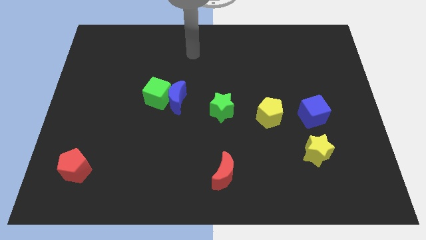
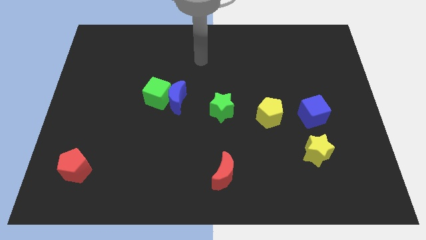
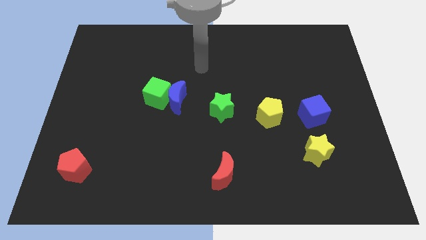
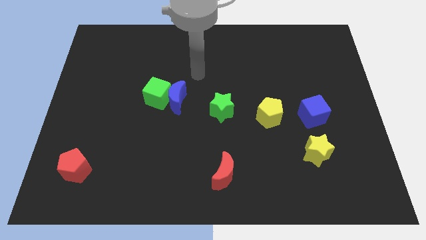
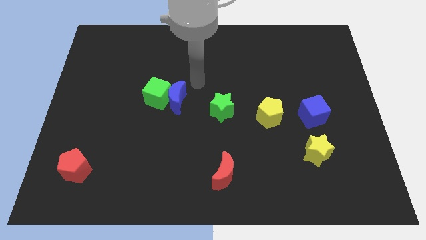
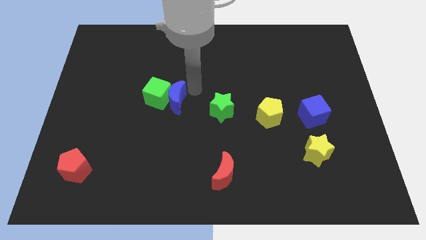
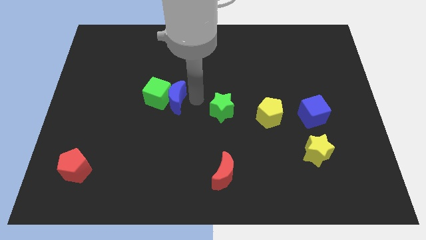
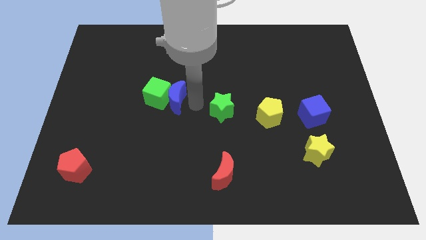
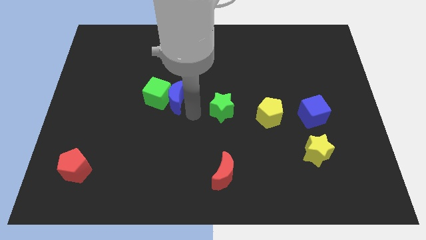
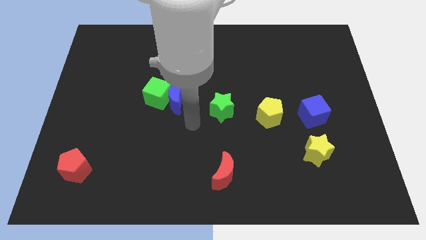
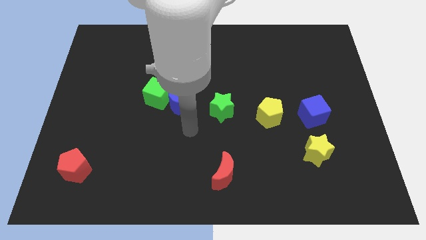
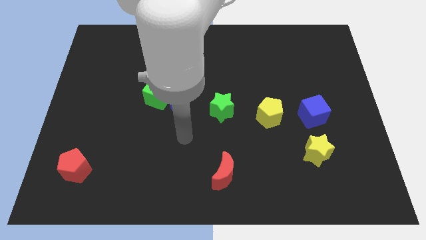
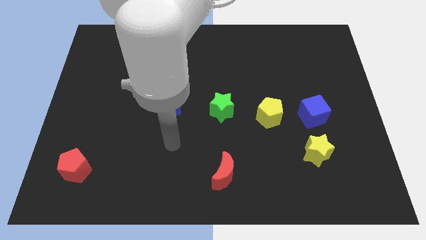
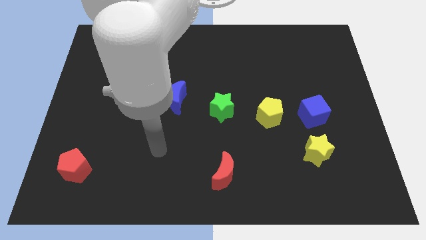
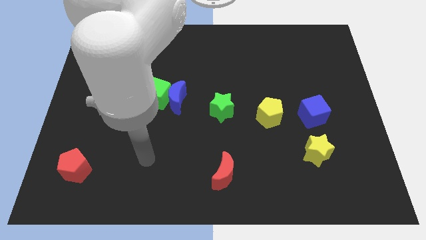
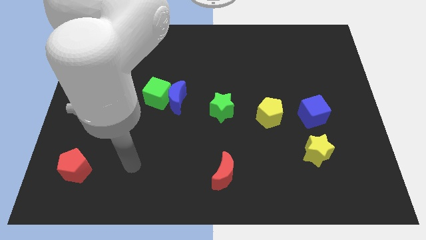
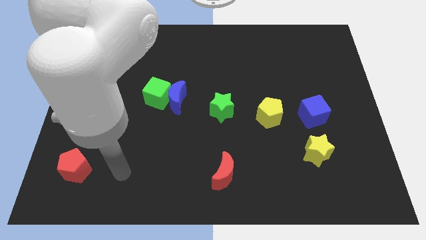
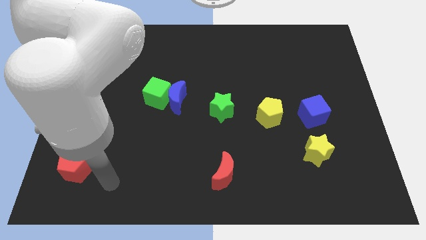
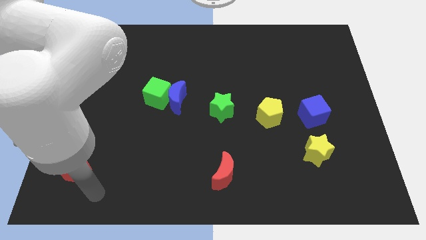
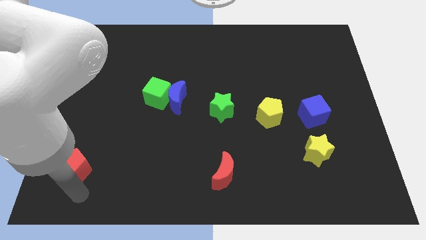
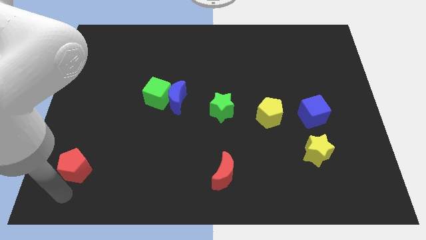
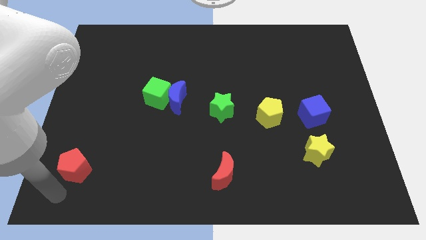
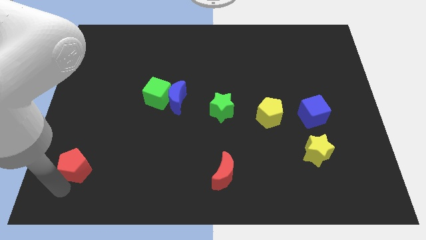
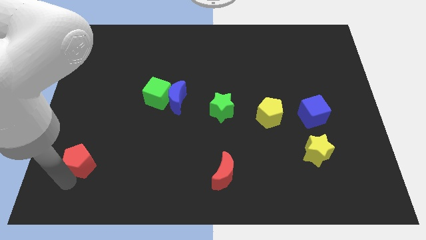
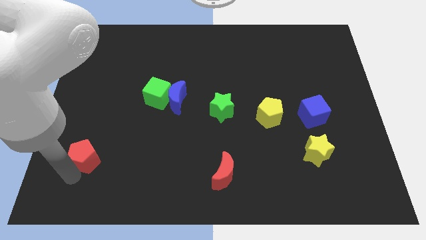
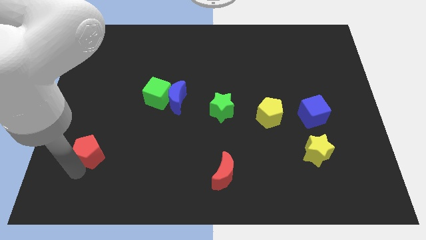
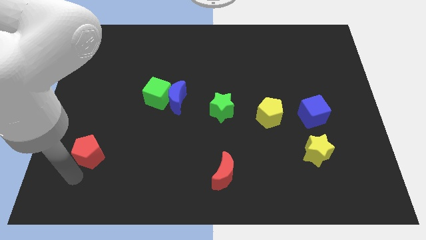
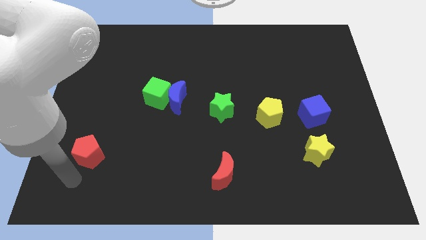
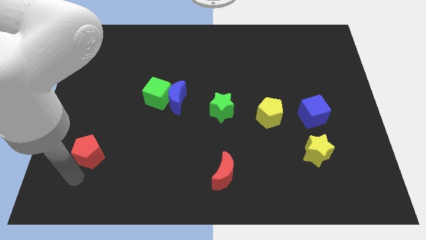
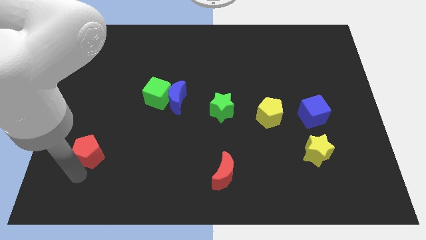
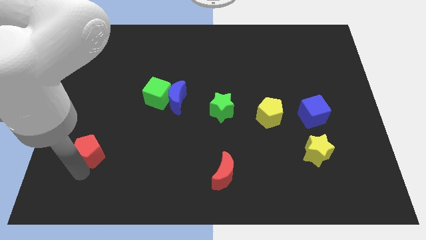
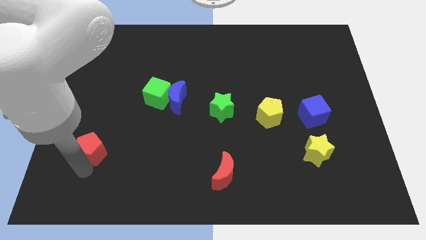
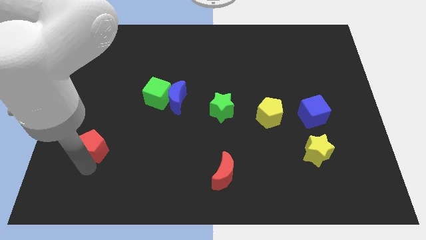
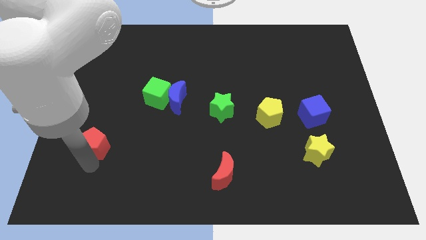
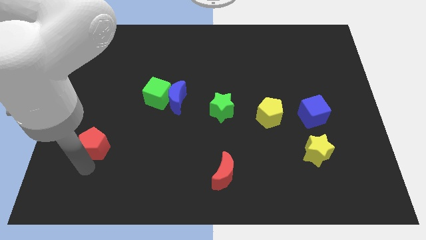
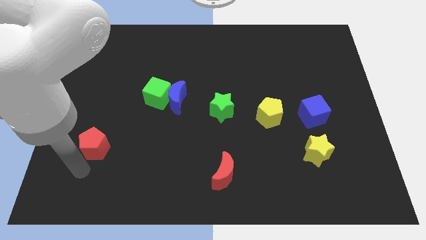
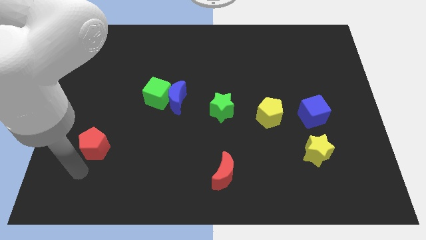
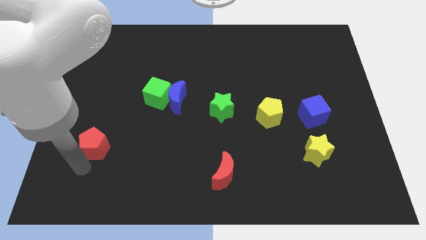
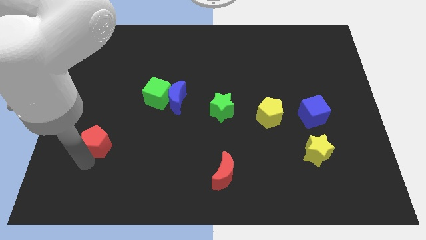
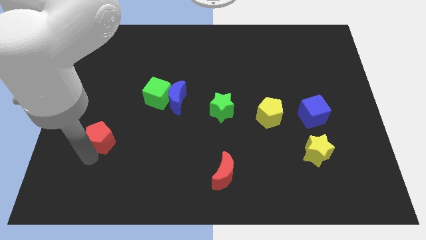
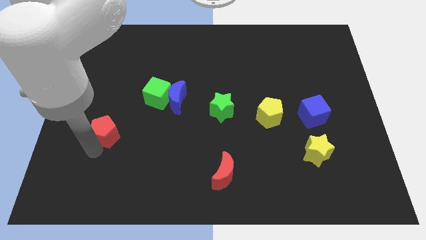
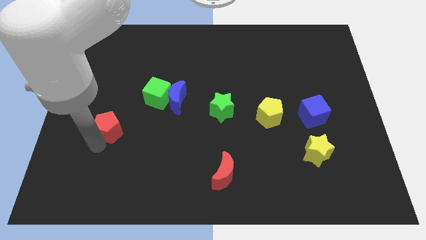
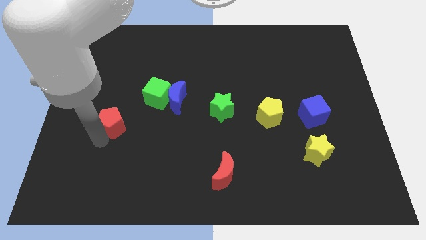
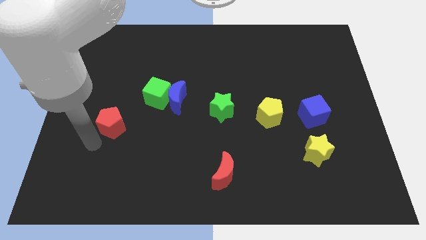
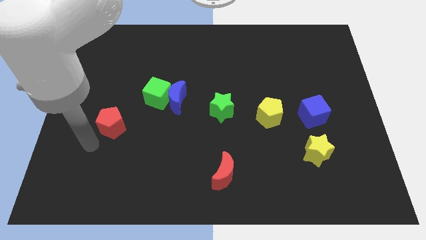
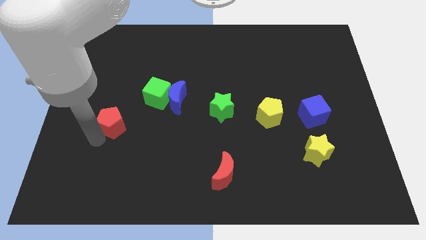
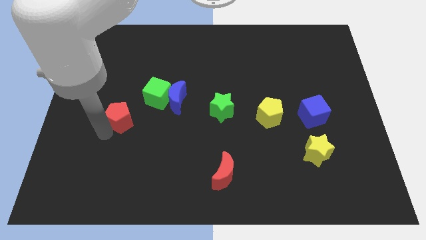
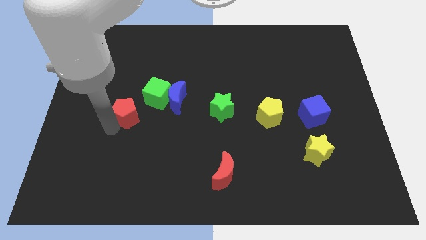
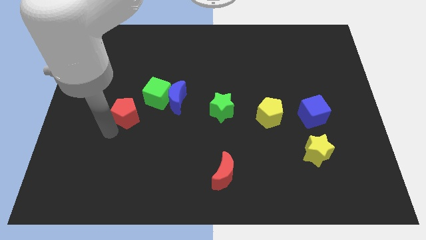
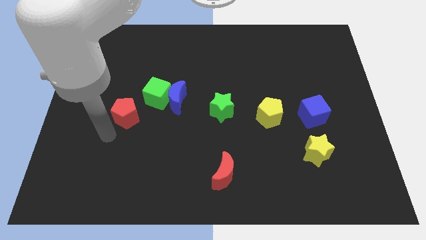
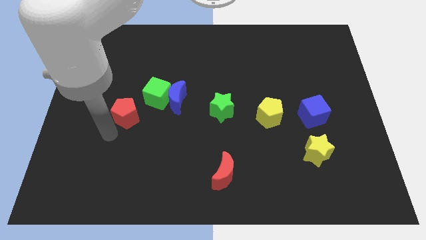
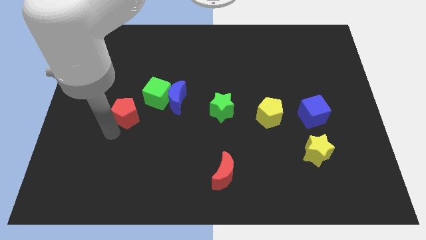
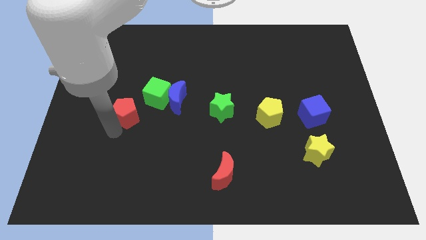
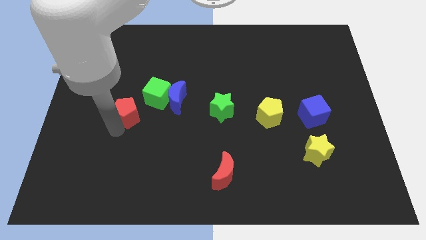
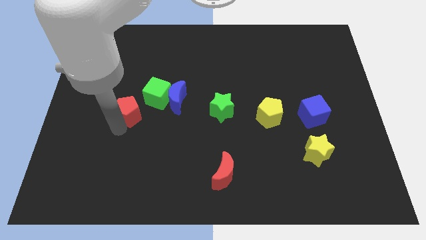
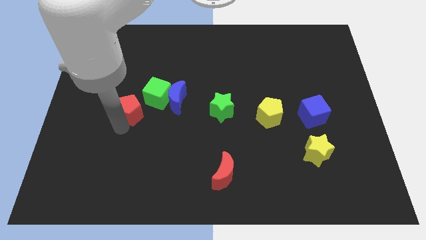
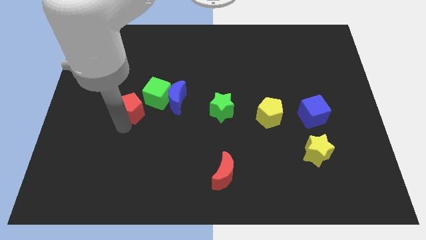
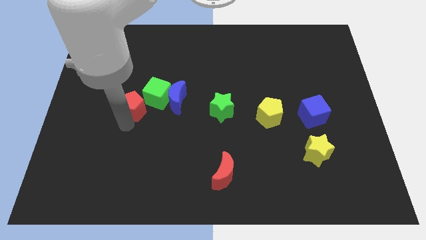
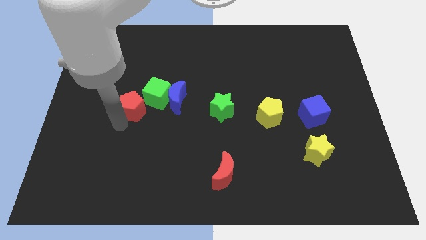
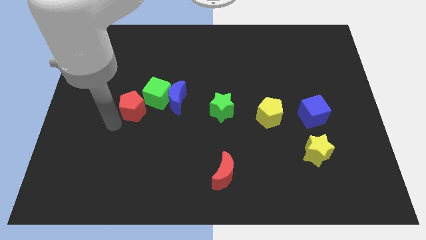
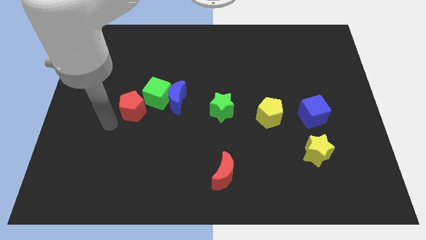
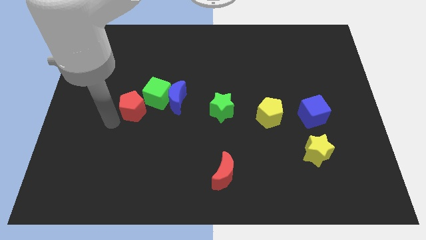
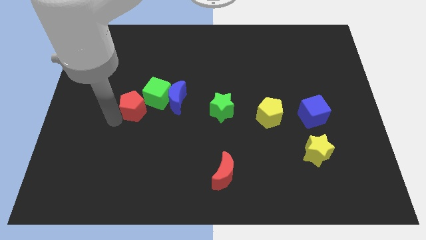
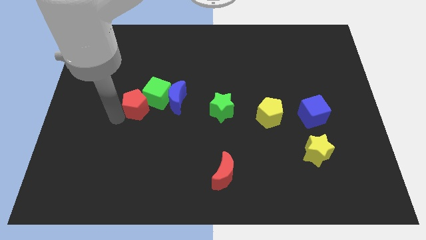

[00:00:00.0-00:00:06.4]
move the red pentagon next to the green cube

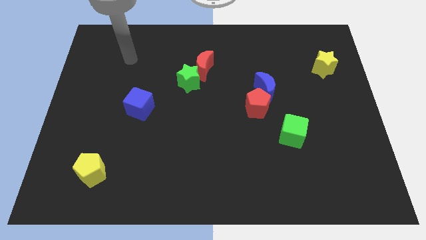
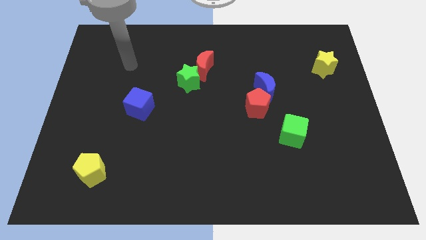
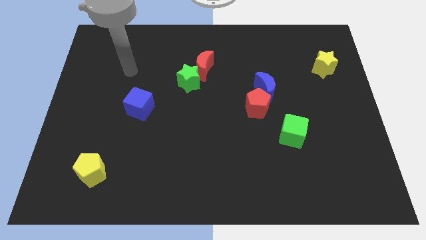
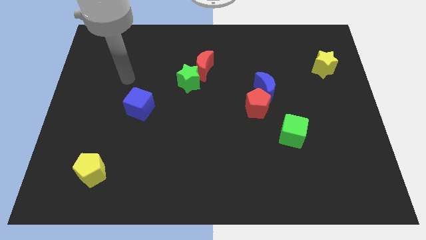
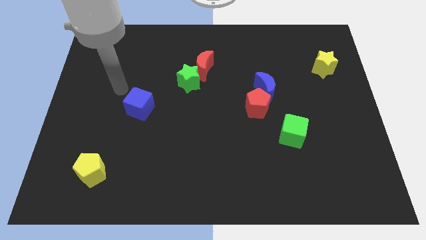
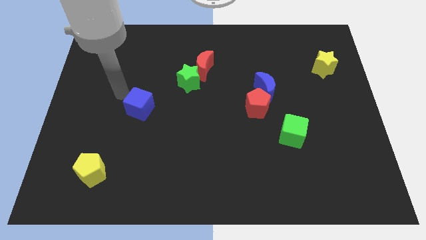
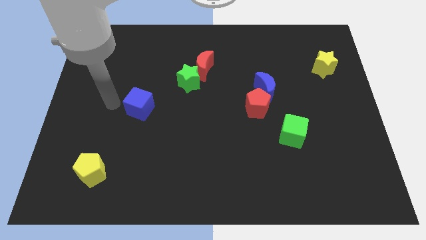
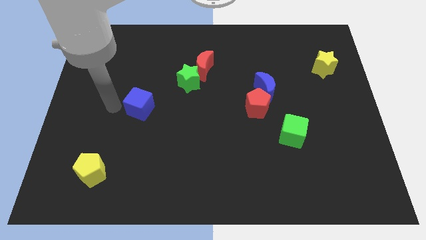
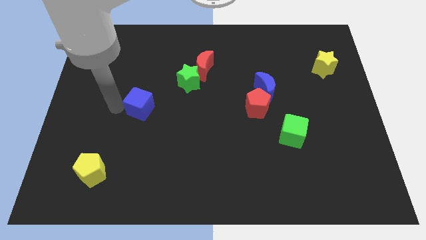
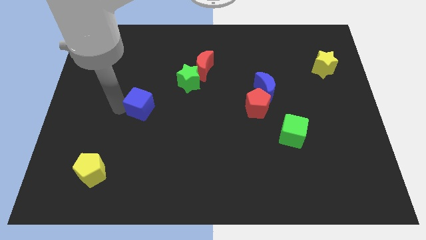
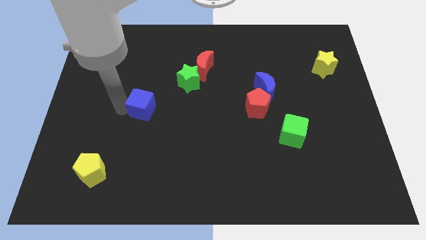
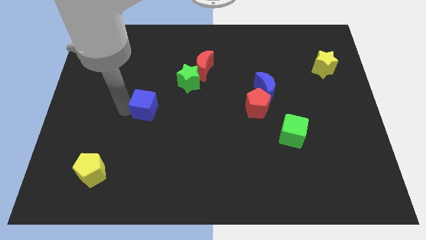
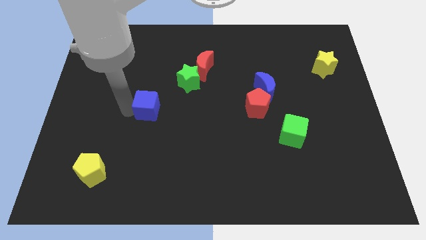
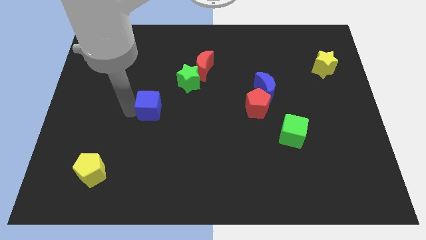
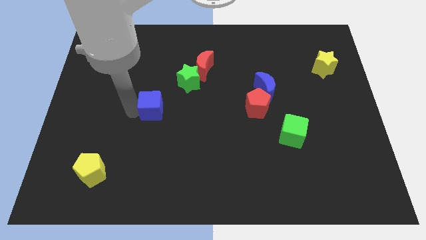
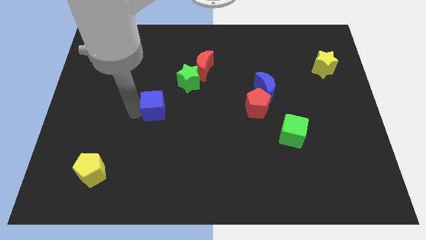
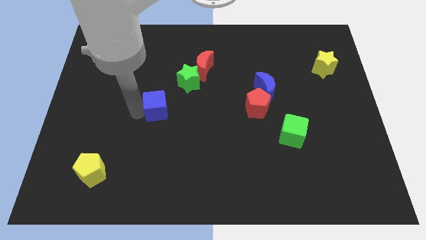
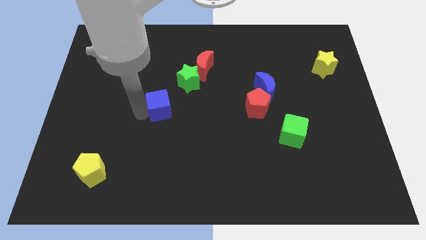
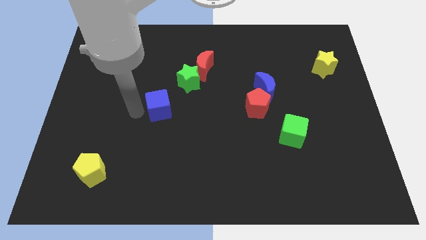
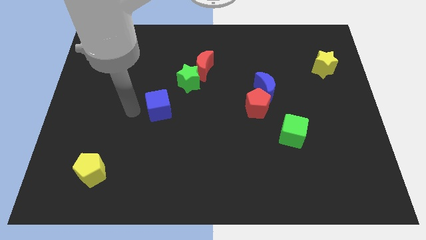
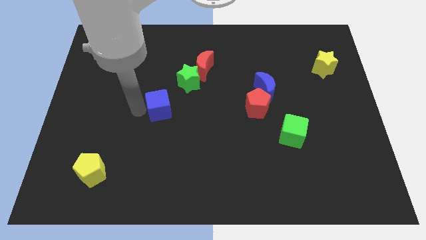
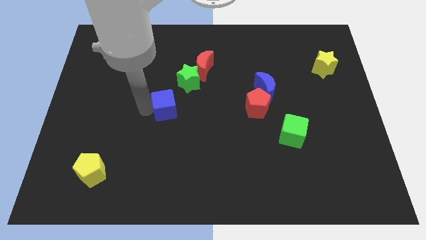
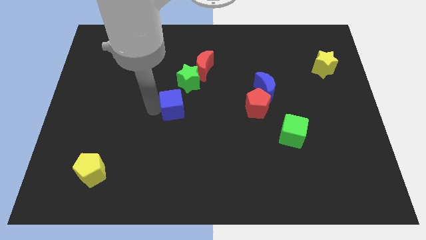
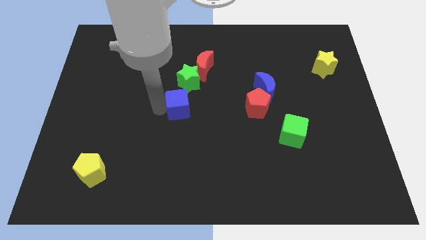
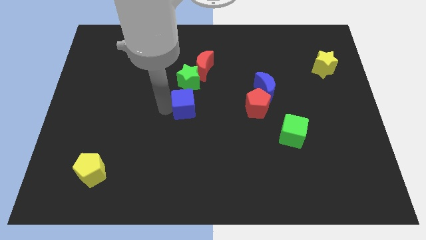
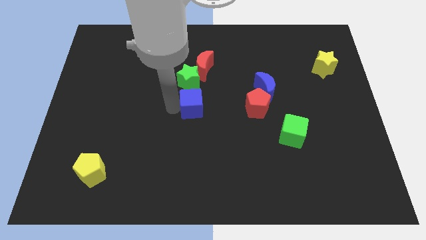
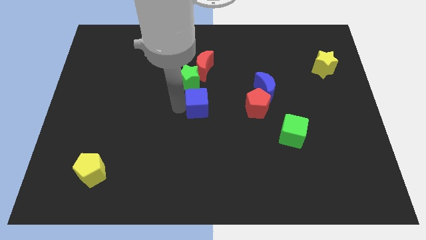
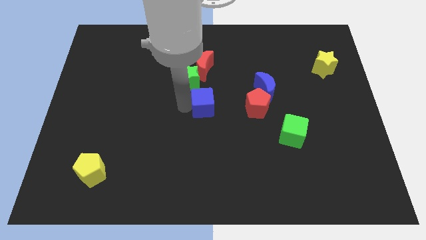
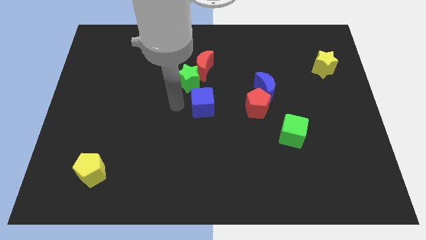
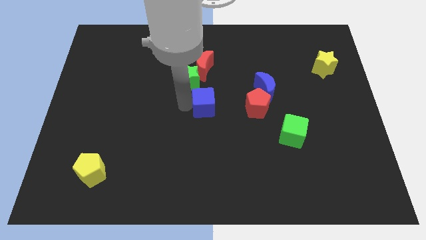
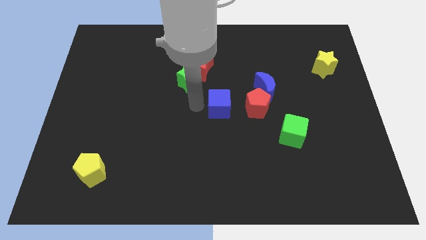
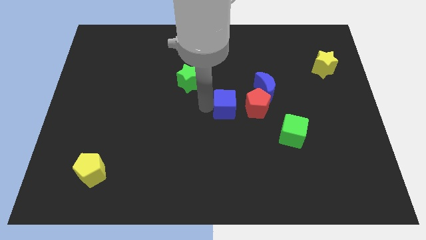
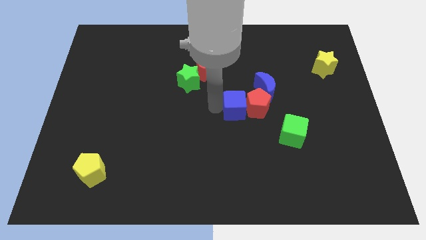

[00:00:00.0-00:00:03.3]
move the blue cube to the red pentagon
